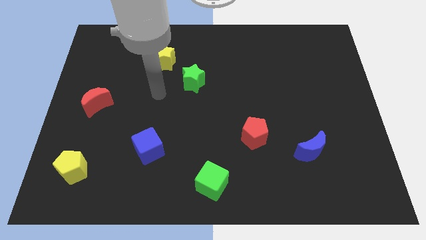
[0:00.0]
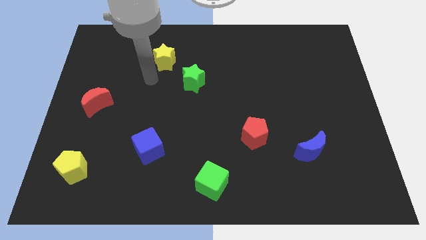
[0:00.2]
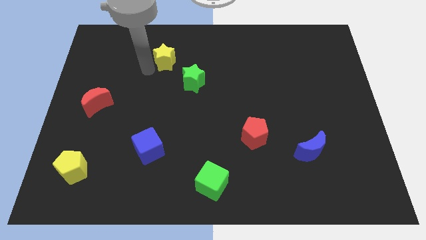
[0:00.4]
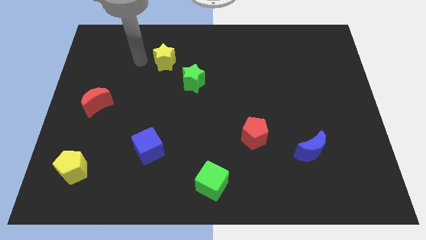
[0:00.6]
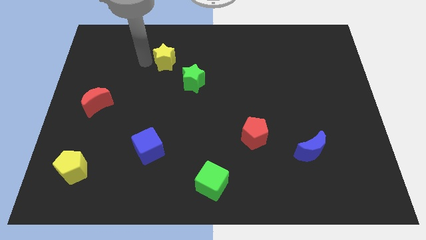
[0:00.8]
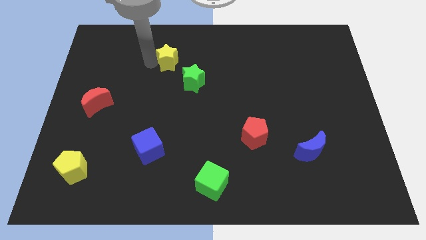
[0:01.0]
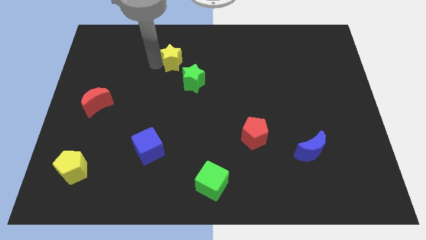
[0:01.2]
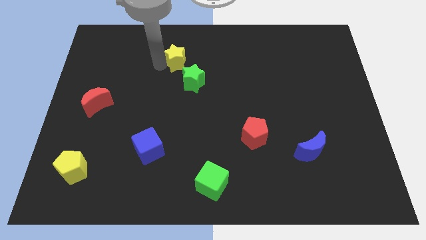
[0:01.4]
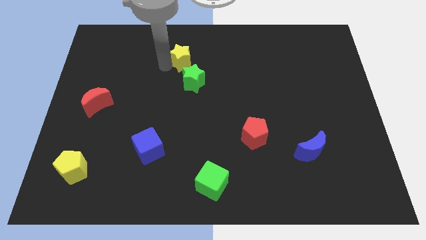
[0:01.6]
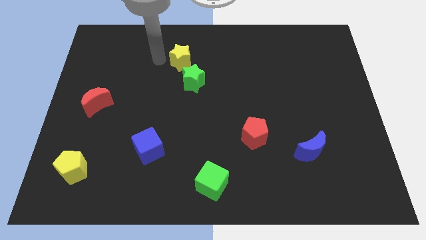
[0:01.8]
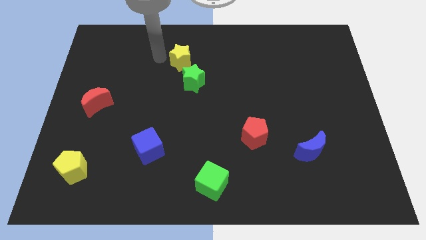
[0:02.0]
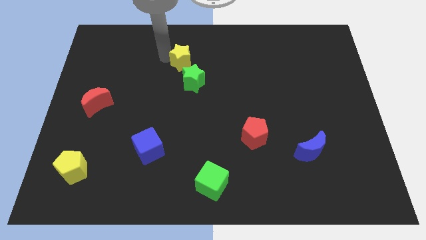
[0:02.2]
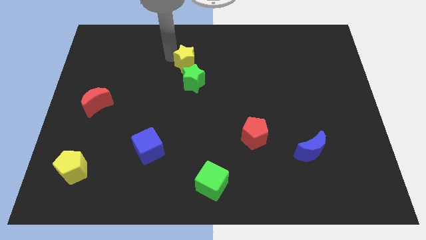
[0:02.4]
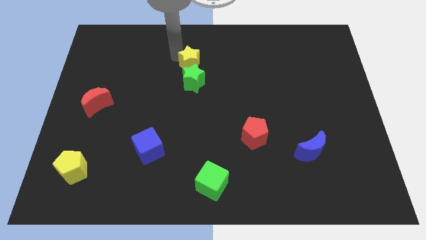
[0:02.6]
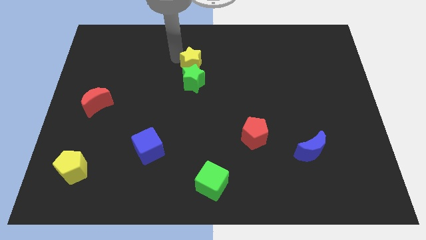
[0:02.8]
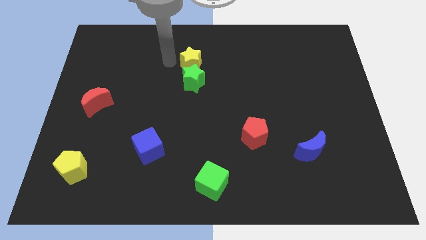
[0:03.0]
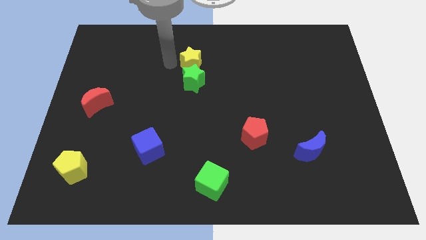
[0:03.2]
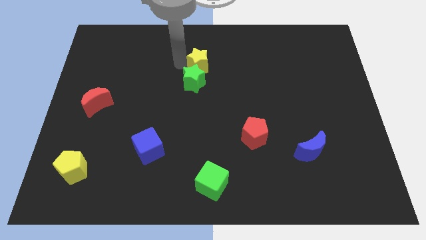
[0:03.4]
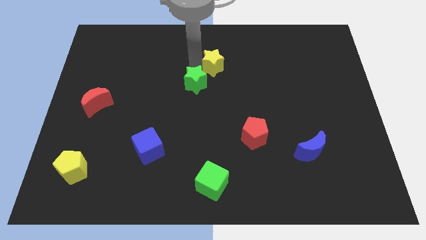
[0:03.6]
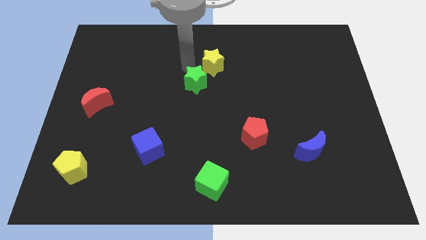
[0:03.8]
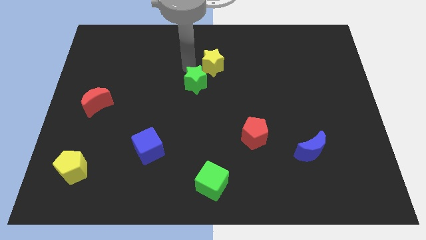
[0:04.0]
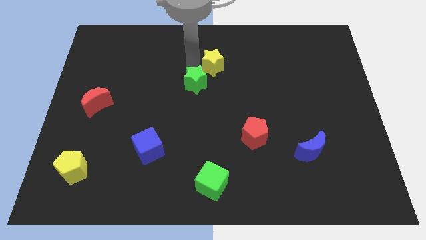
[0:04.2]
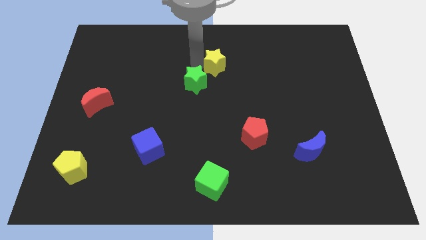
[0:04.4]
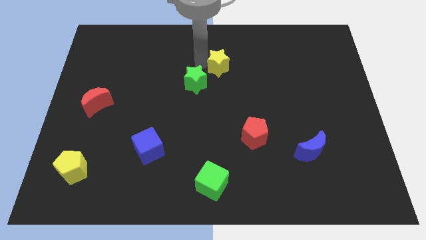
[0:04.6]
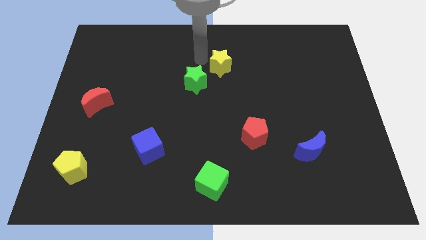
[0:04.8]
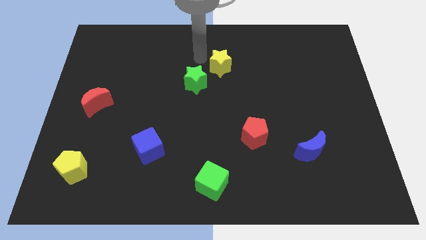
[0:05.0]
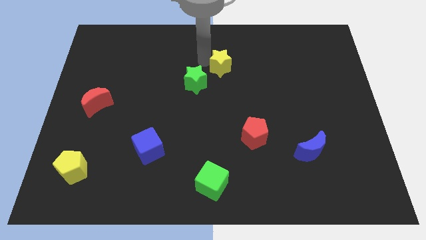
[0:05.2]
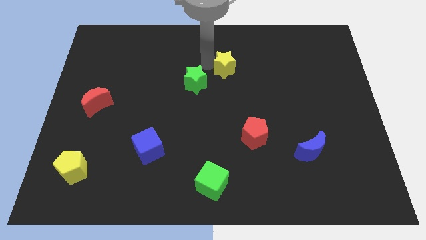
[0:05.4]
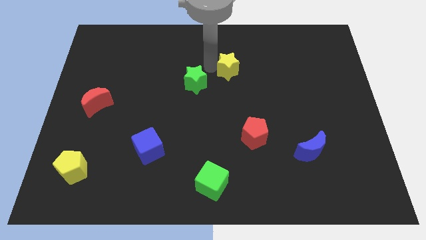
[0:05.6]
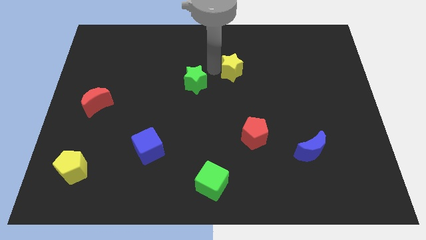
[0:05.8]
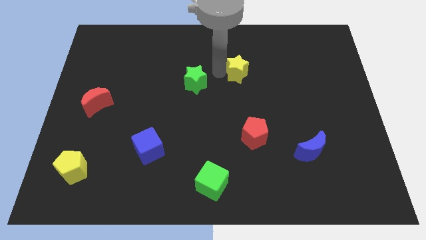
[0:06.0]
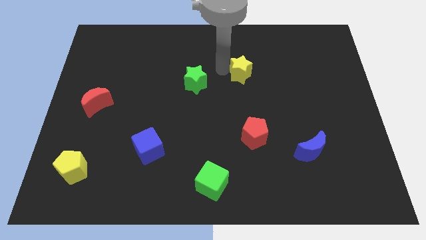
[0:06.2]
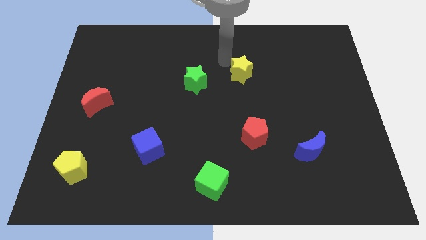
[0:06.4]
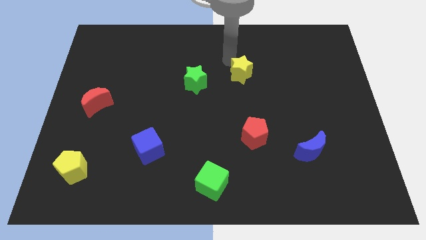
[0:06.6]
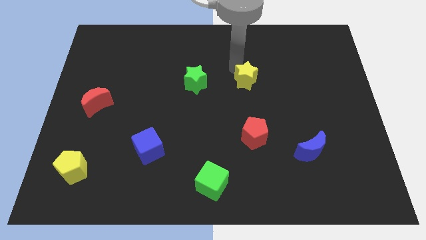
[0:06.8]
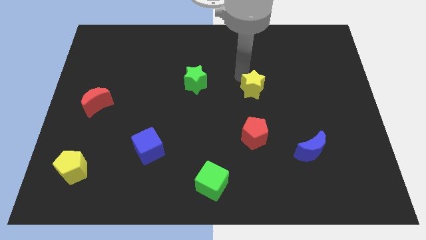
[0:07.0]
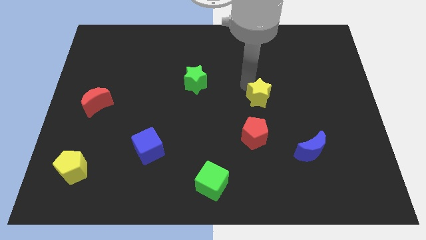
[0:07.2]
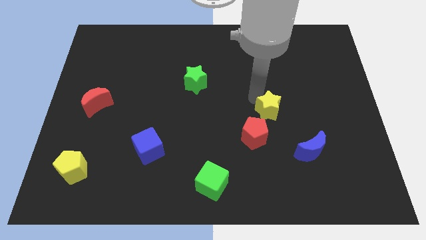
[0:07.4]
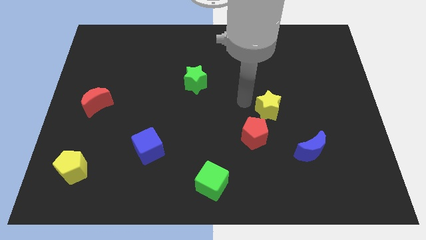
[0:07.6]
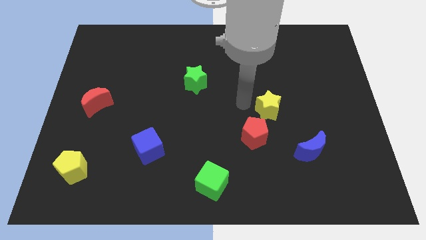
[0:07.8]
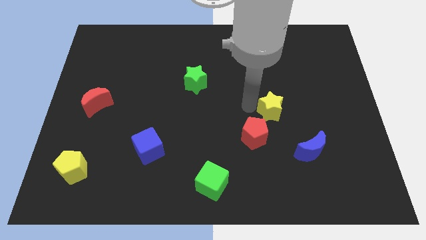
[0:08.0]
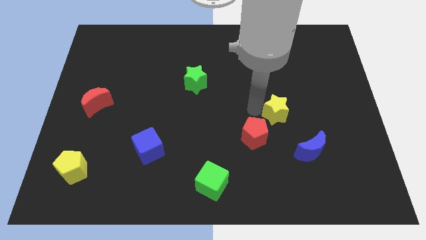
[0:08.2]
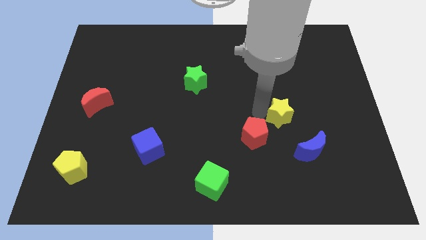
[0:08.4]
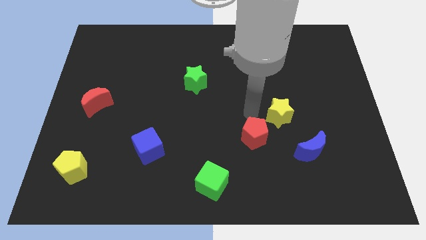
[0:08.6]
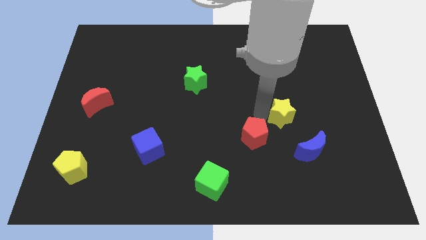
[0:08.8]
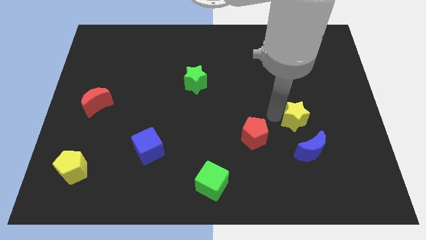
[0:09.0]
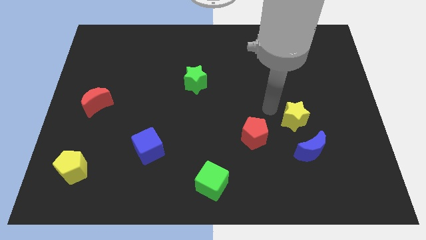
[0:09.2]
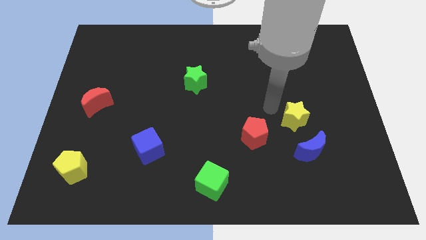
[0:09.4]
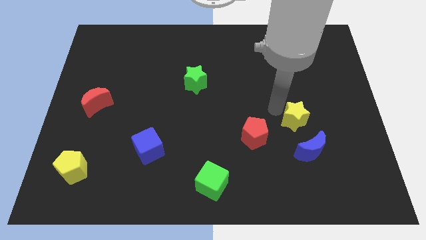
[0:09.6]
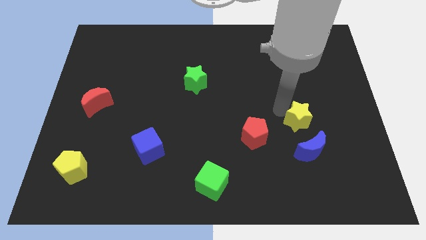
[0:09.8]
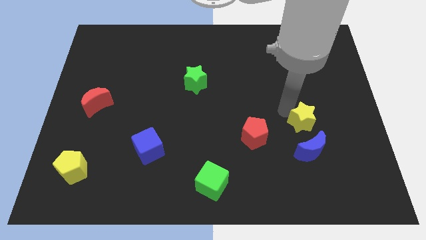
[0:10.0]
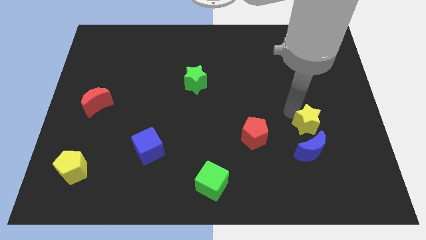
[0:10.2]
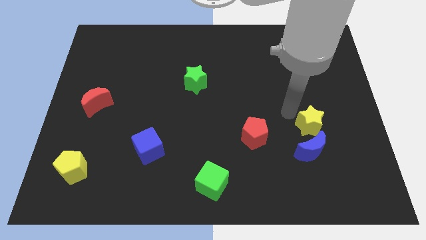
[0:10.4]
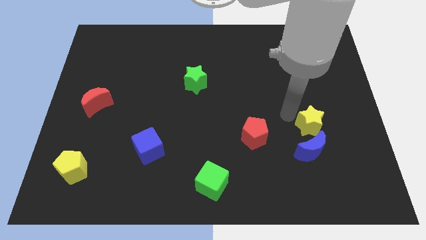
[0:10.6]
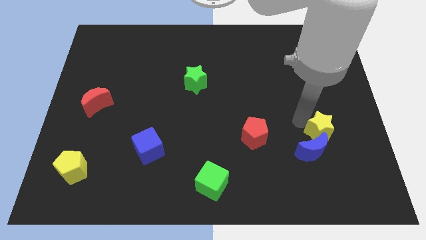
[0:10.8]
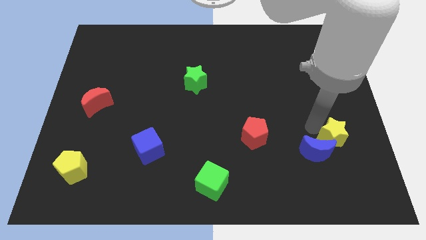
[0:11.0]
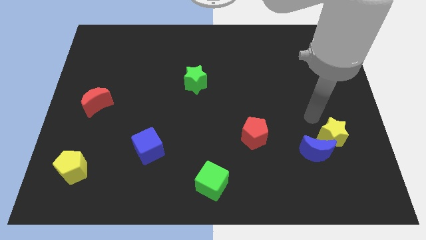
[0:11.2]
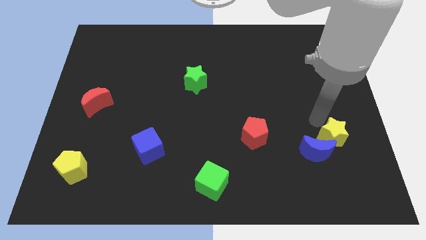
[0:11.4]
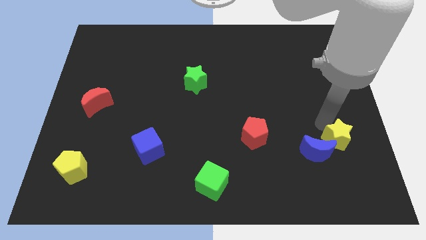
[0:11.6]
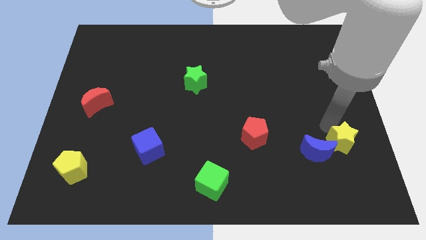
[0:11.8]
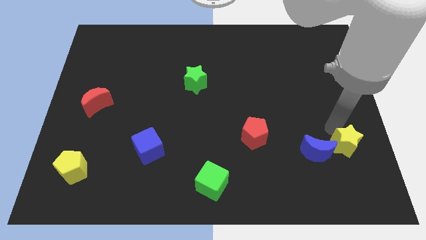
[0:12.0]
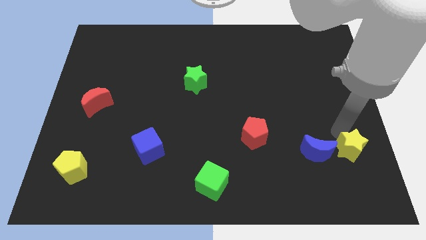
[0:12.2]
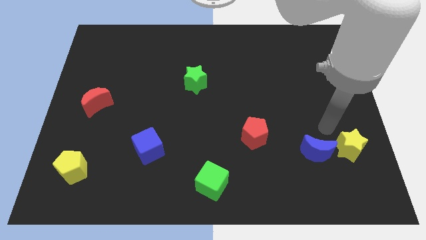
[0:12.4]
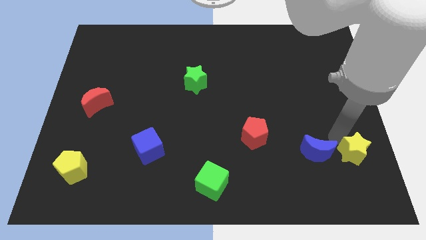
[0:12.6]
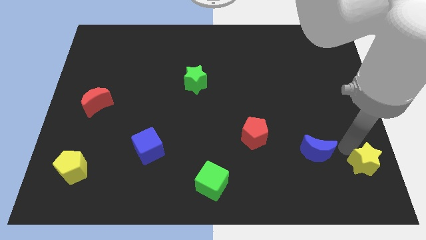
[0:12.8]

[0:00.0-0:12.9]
move the yellow star to the lower right corner

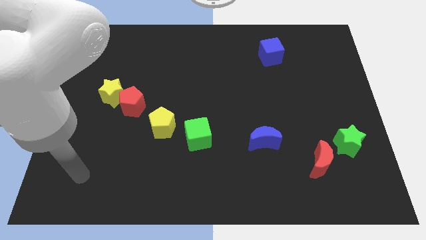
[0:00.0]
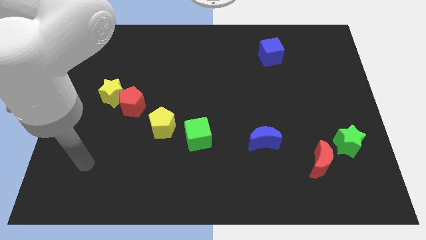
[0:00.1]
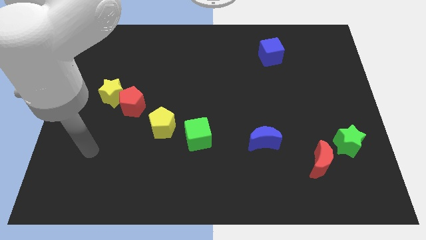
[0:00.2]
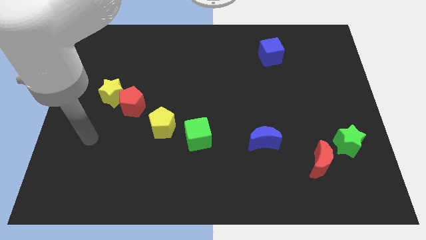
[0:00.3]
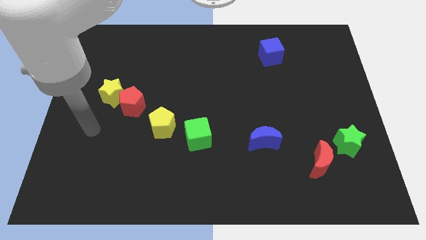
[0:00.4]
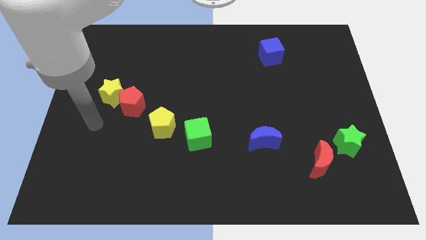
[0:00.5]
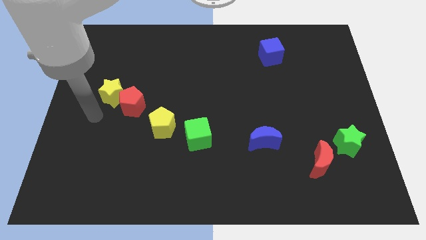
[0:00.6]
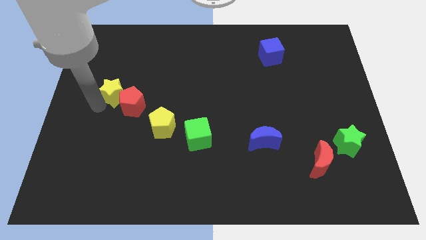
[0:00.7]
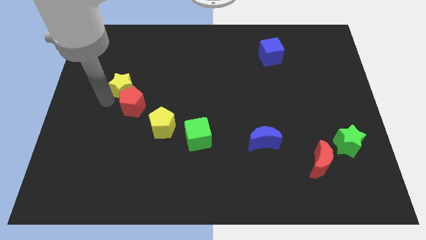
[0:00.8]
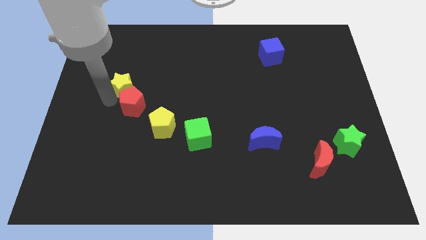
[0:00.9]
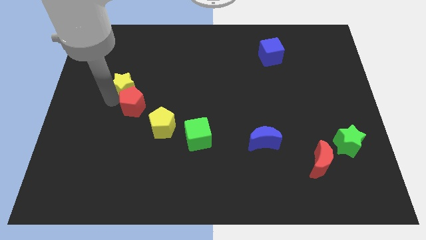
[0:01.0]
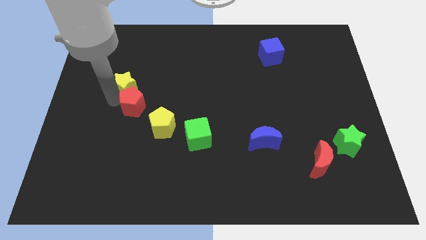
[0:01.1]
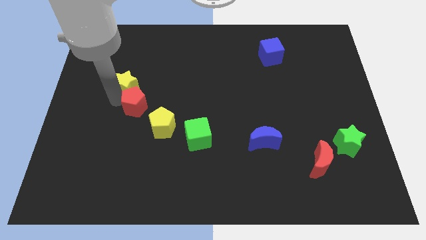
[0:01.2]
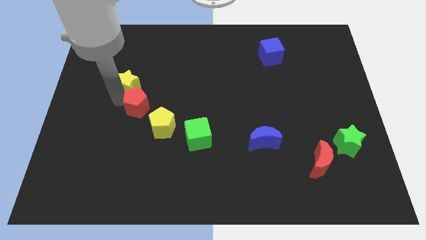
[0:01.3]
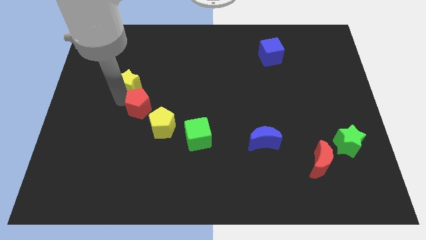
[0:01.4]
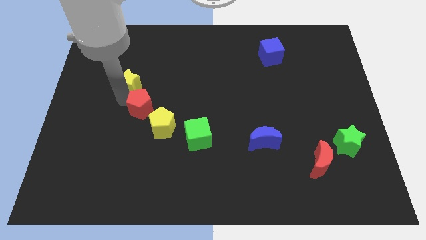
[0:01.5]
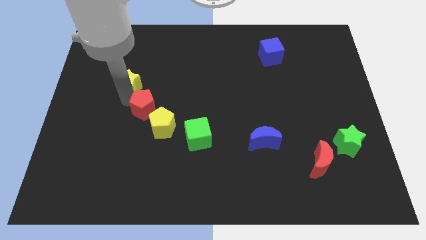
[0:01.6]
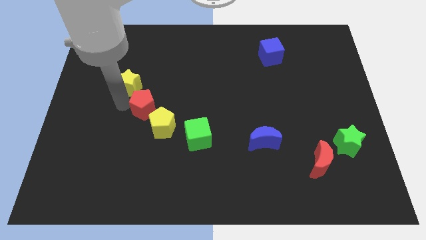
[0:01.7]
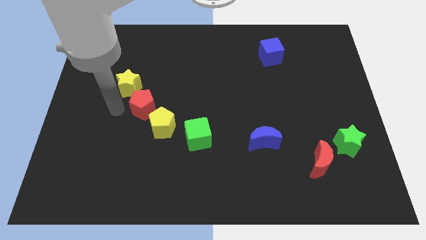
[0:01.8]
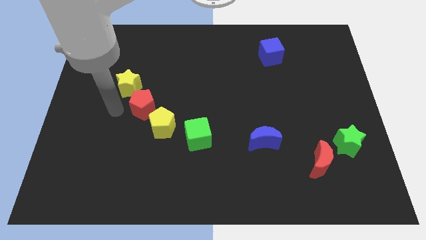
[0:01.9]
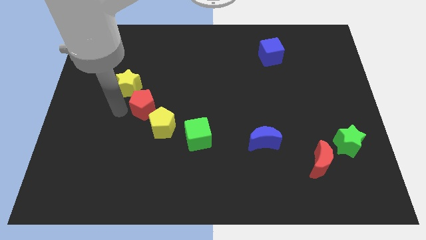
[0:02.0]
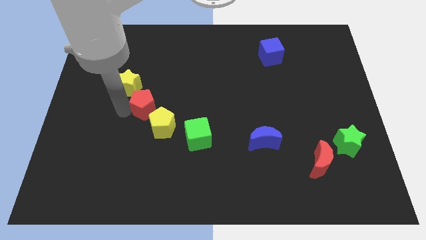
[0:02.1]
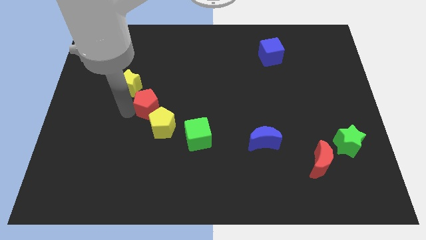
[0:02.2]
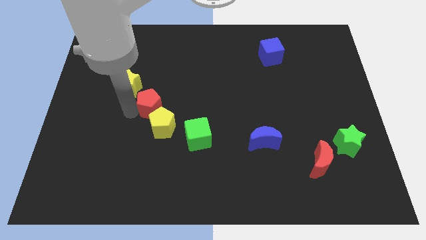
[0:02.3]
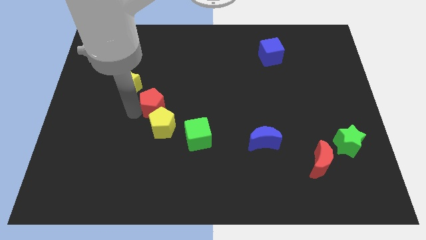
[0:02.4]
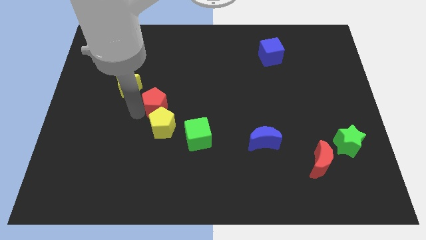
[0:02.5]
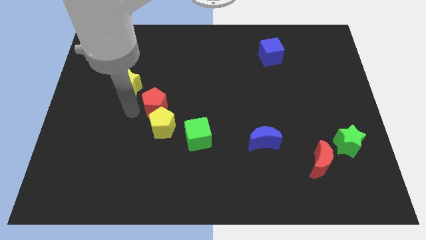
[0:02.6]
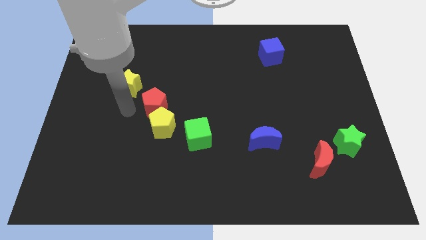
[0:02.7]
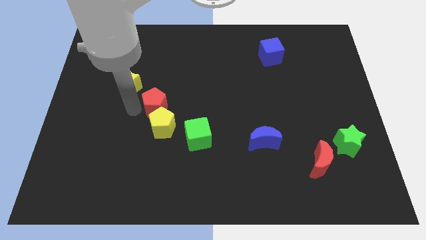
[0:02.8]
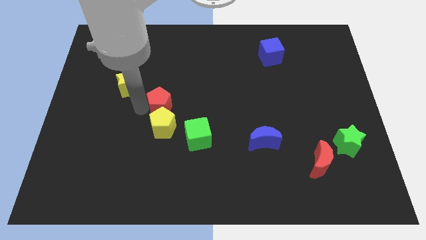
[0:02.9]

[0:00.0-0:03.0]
put the red pentagon to the center of the board
